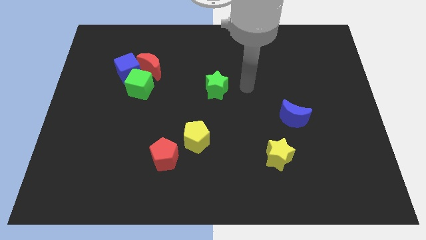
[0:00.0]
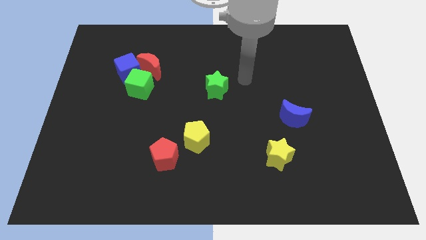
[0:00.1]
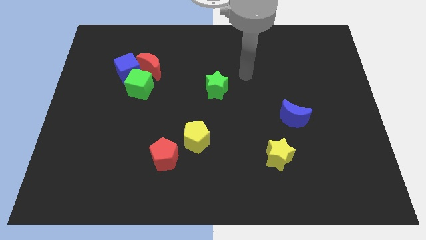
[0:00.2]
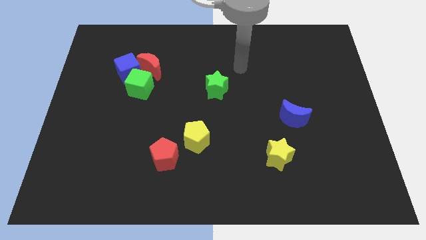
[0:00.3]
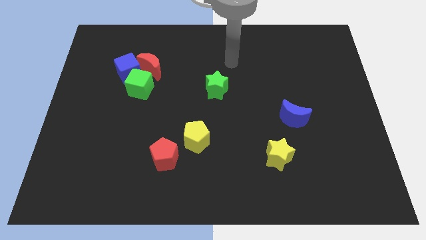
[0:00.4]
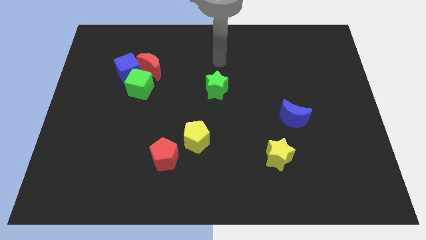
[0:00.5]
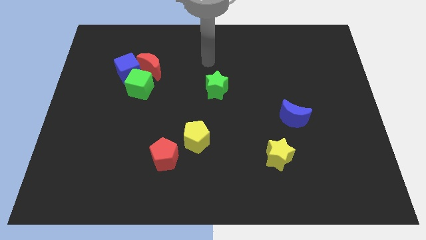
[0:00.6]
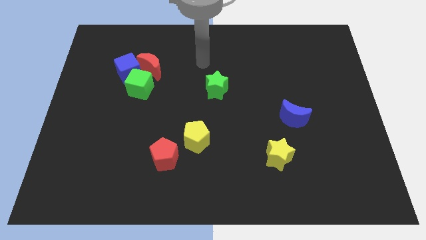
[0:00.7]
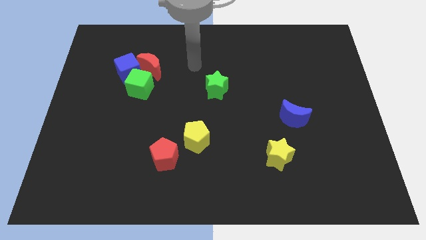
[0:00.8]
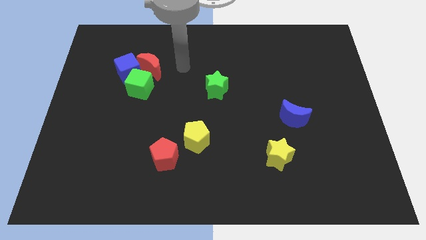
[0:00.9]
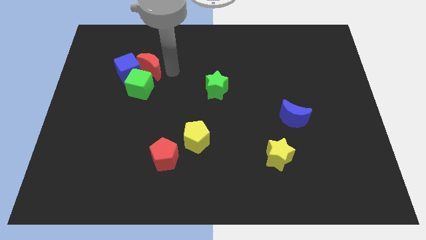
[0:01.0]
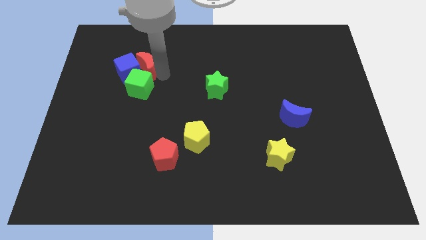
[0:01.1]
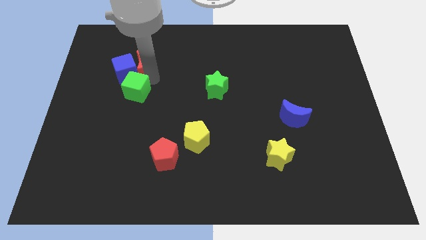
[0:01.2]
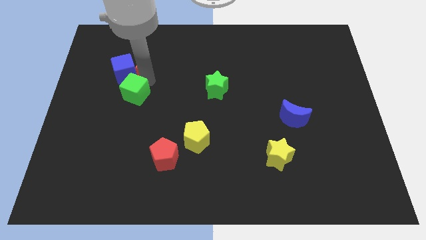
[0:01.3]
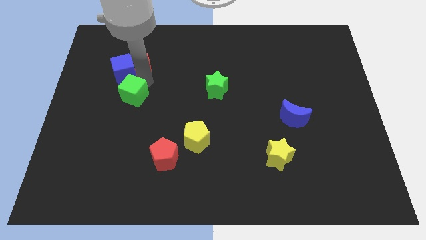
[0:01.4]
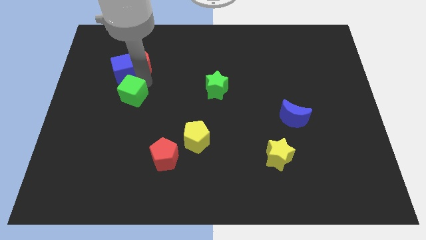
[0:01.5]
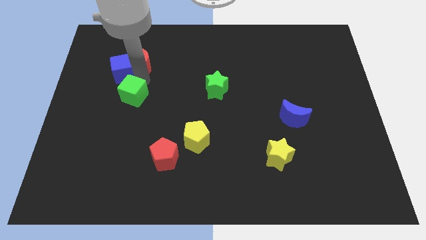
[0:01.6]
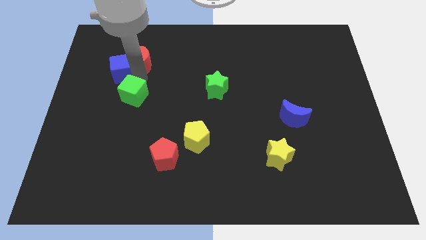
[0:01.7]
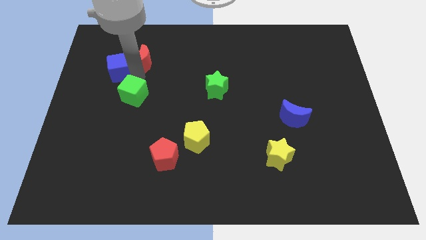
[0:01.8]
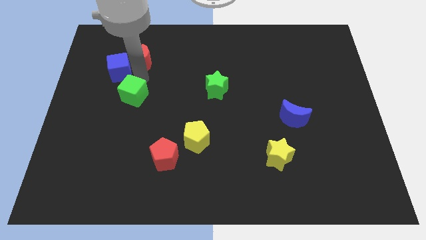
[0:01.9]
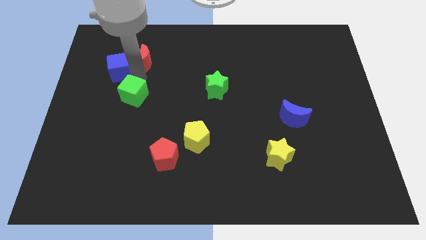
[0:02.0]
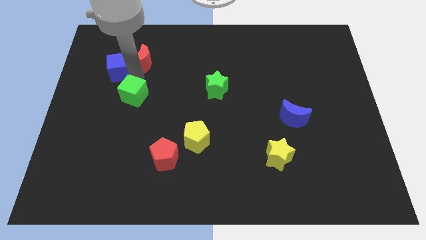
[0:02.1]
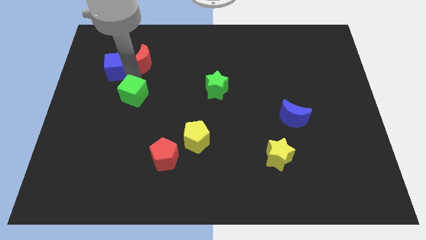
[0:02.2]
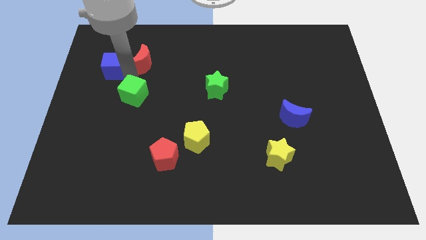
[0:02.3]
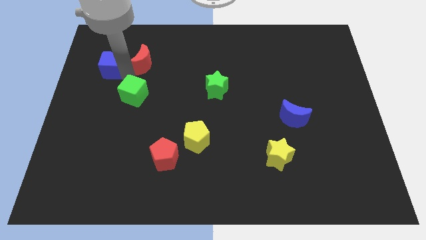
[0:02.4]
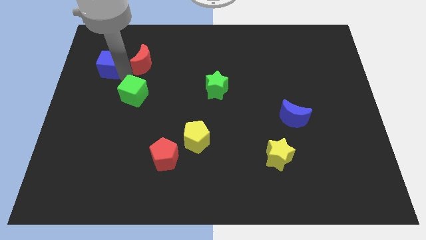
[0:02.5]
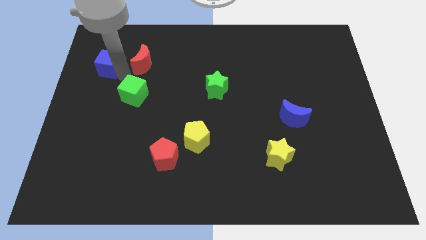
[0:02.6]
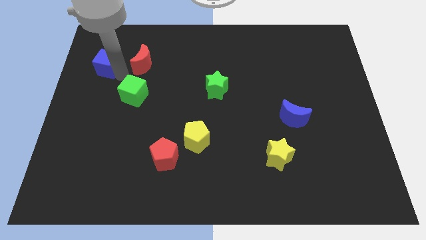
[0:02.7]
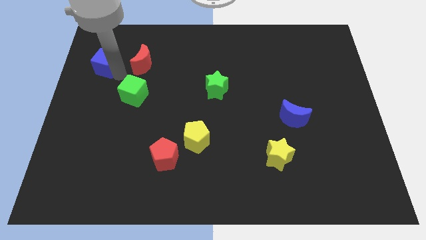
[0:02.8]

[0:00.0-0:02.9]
move the blue cube away from the red moon and green cube

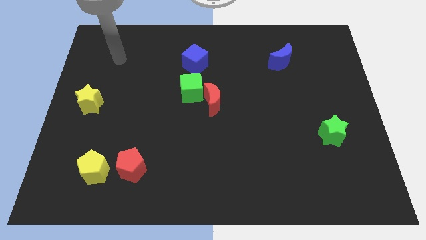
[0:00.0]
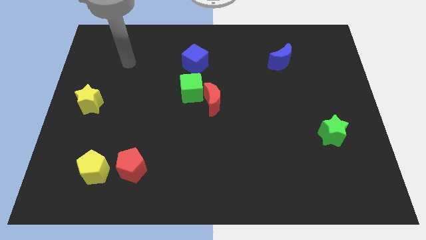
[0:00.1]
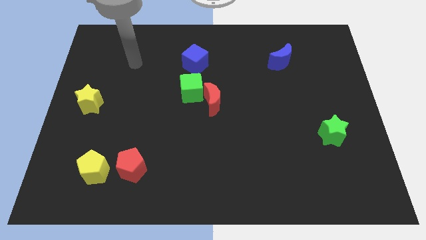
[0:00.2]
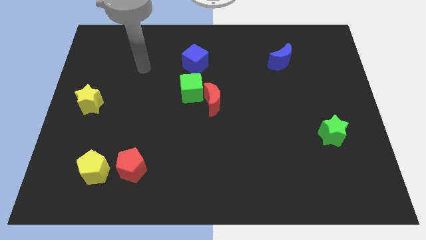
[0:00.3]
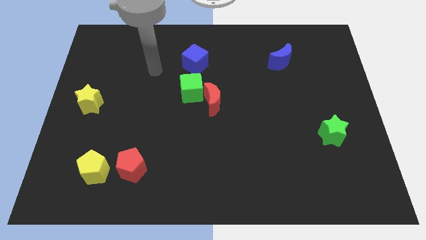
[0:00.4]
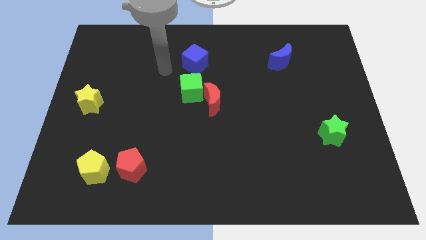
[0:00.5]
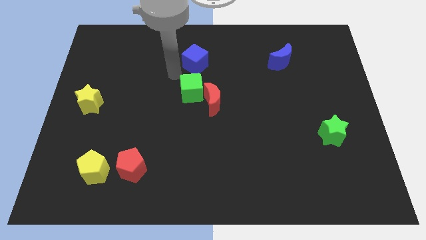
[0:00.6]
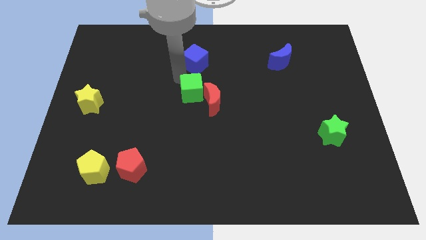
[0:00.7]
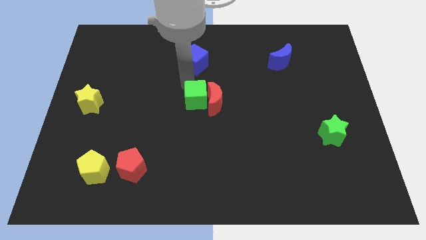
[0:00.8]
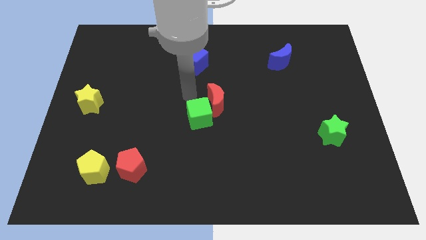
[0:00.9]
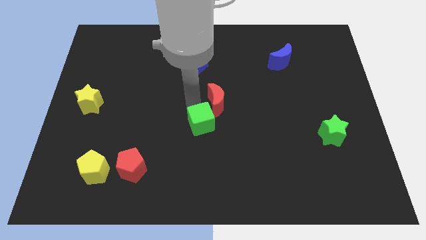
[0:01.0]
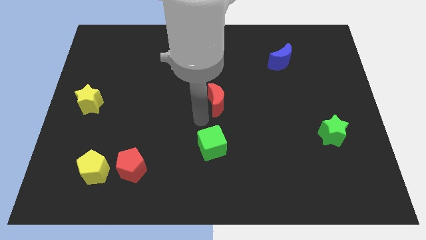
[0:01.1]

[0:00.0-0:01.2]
separate the red moon from the green cube

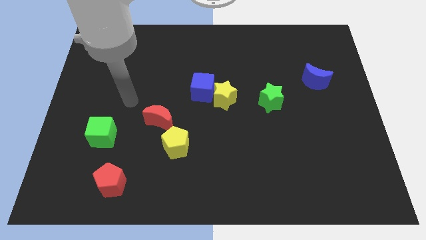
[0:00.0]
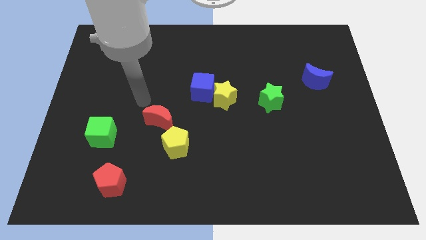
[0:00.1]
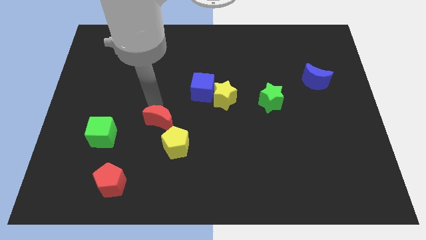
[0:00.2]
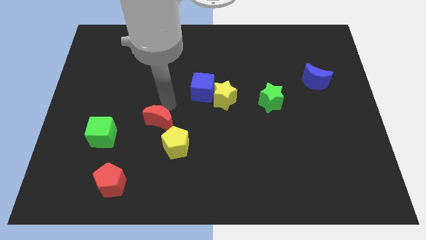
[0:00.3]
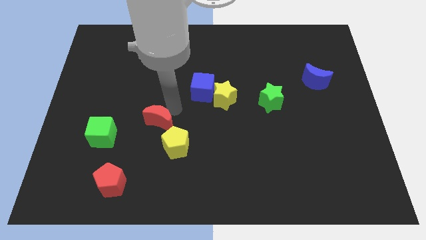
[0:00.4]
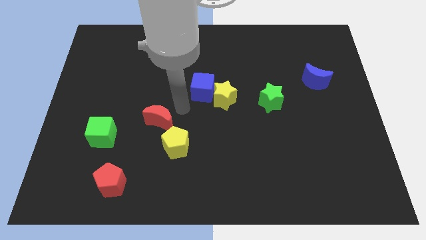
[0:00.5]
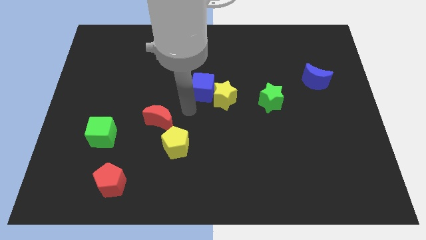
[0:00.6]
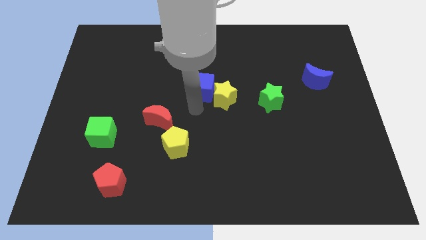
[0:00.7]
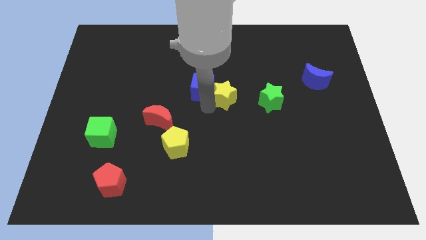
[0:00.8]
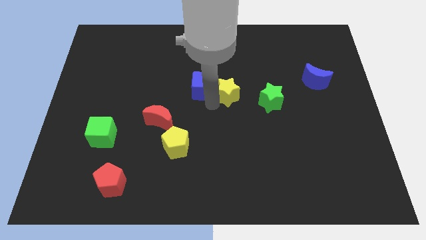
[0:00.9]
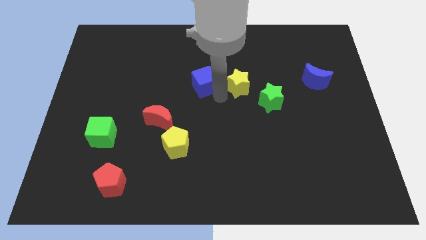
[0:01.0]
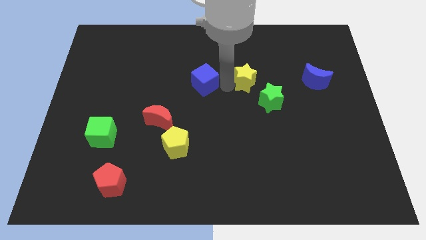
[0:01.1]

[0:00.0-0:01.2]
separate the blue cube from the yellow star

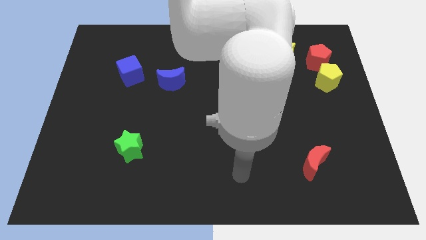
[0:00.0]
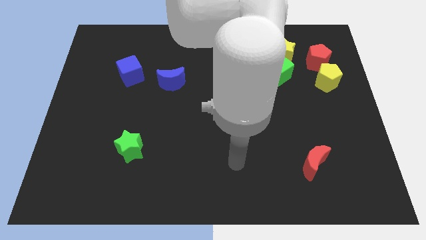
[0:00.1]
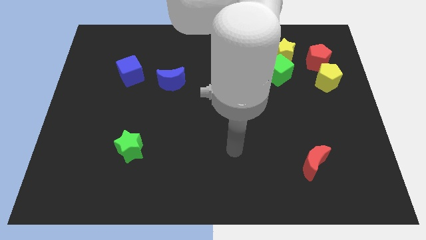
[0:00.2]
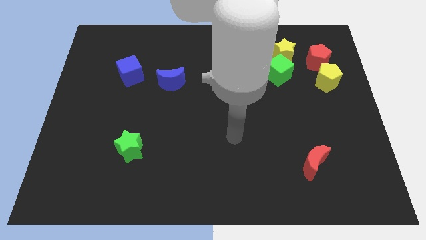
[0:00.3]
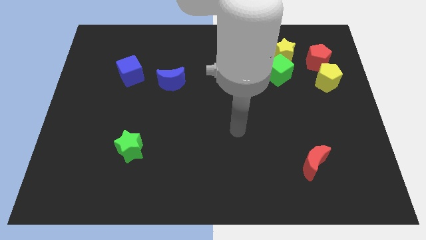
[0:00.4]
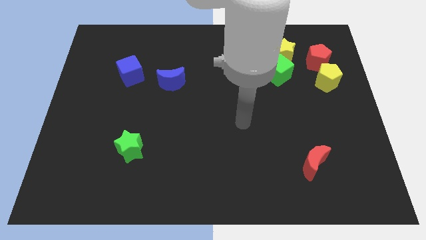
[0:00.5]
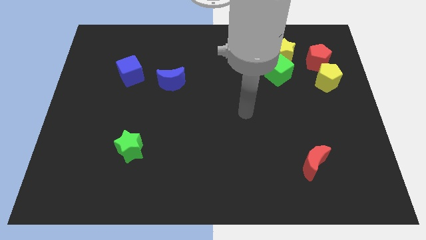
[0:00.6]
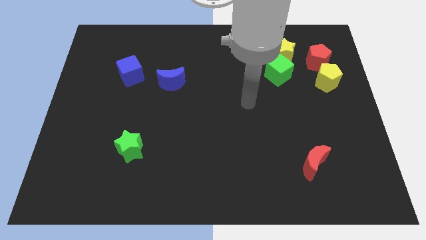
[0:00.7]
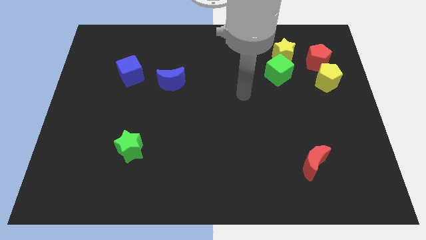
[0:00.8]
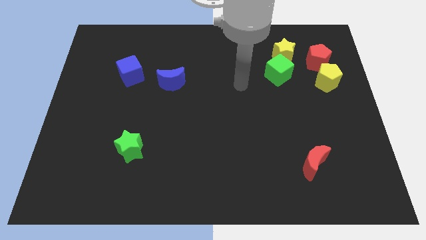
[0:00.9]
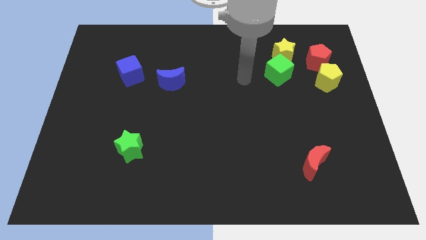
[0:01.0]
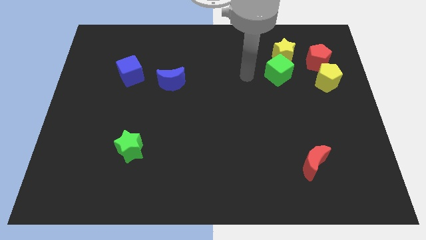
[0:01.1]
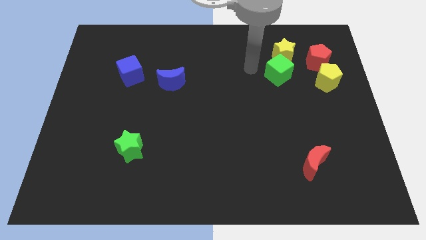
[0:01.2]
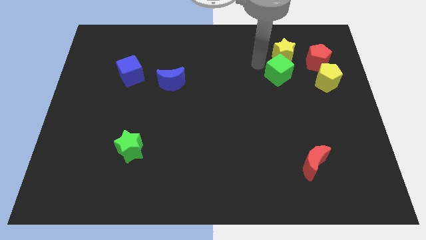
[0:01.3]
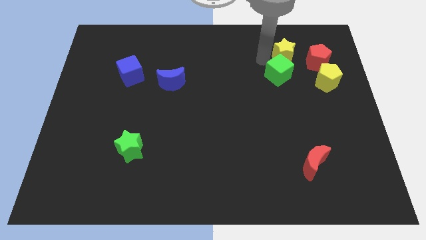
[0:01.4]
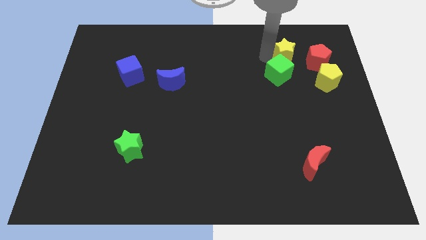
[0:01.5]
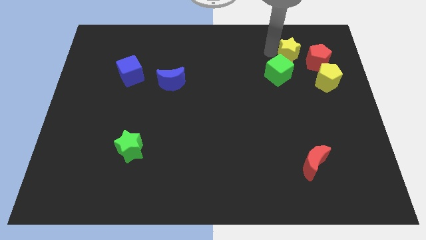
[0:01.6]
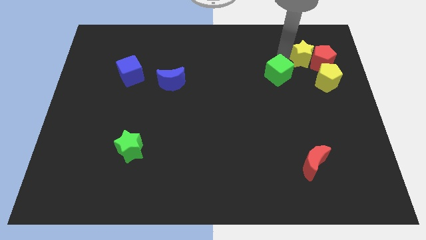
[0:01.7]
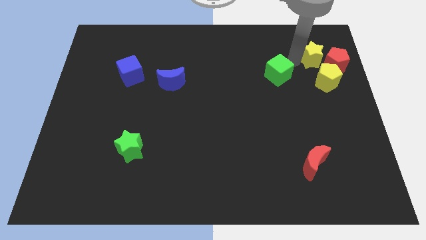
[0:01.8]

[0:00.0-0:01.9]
pull the green cube apart from the yellow star

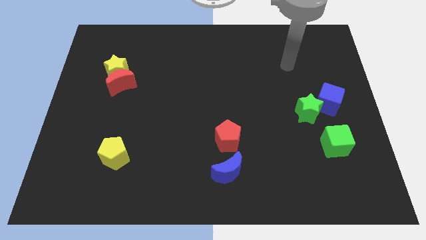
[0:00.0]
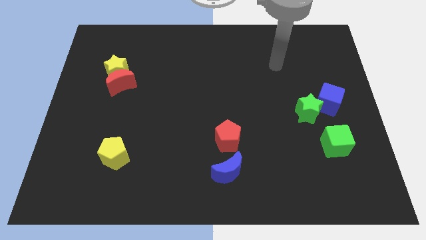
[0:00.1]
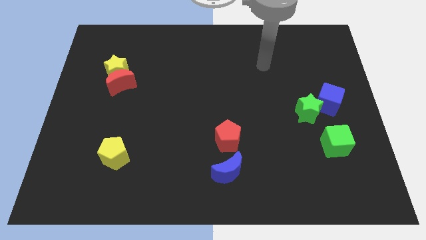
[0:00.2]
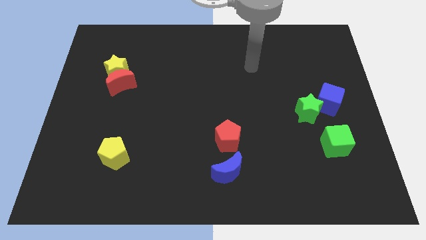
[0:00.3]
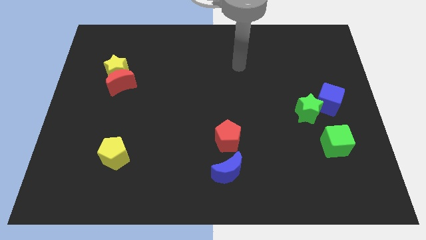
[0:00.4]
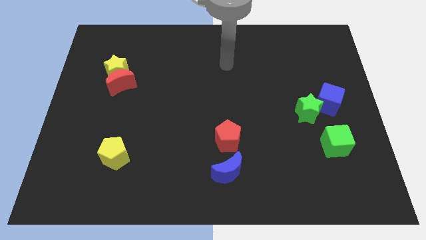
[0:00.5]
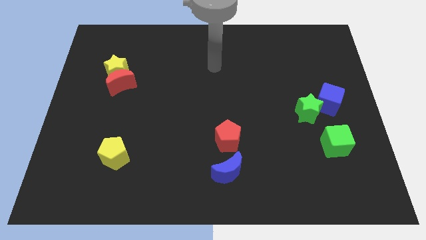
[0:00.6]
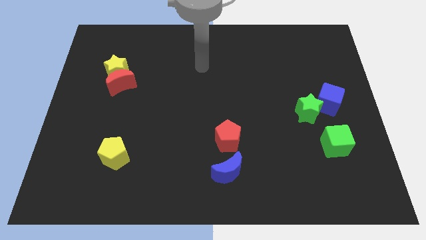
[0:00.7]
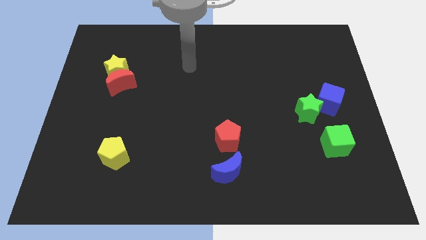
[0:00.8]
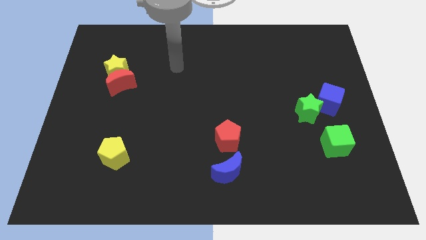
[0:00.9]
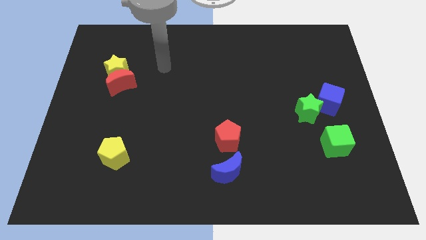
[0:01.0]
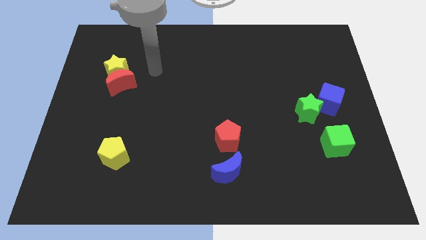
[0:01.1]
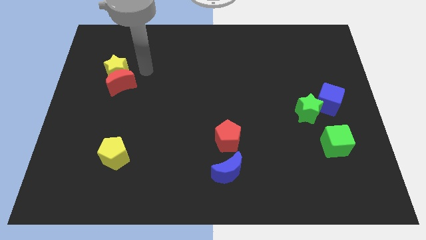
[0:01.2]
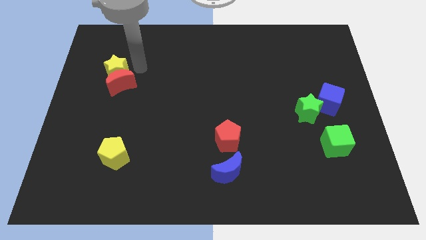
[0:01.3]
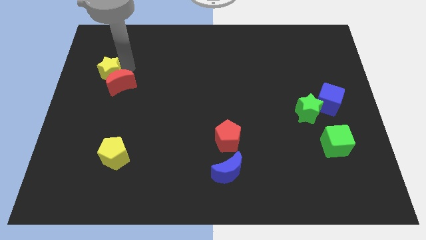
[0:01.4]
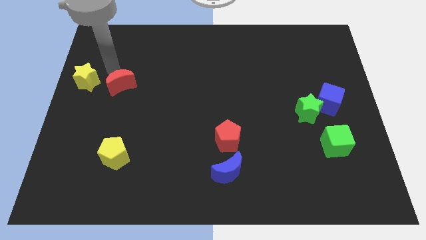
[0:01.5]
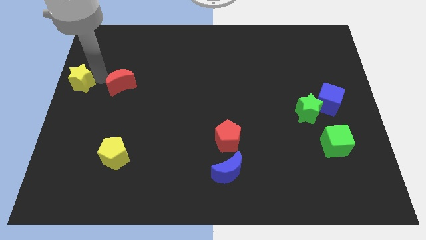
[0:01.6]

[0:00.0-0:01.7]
move the red moon away from the yellow star

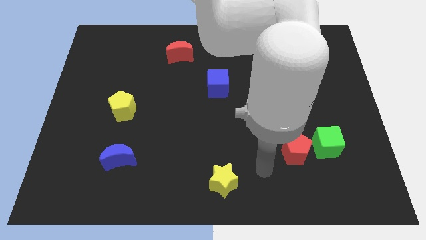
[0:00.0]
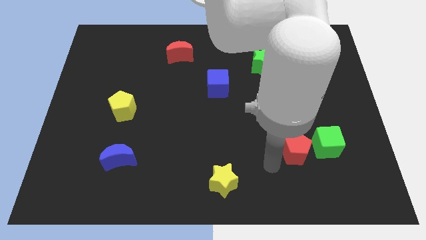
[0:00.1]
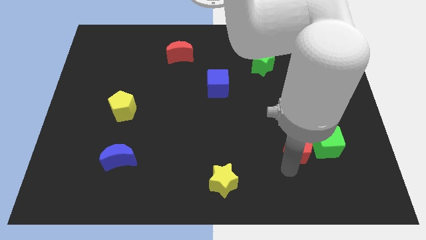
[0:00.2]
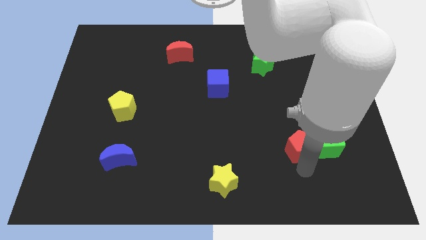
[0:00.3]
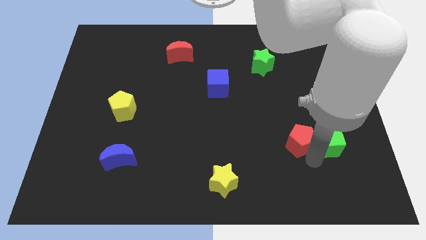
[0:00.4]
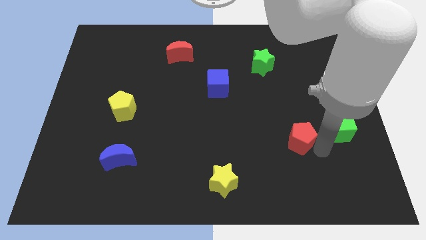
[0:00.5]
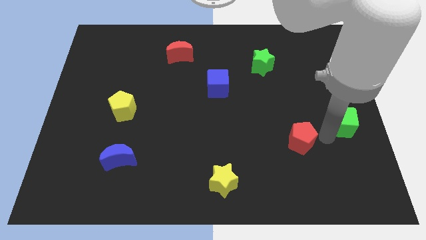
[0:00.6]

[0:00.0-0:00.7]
move the red pentagon away from the green cube
